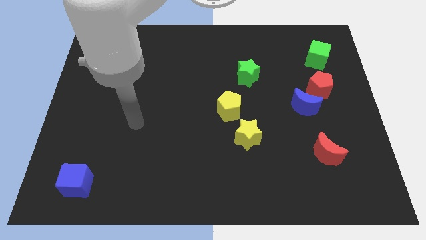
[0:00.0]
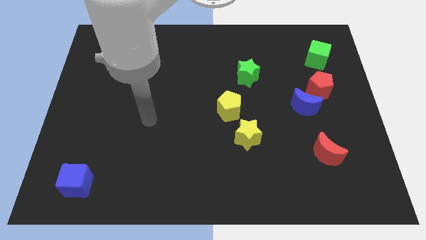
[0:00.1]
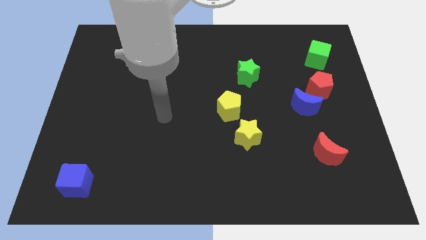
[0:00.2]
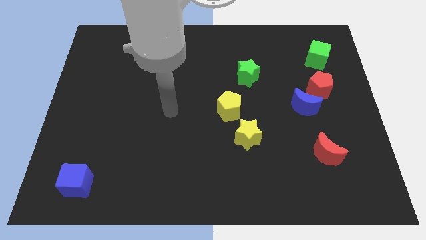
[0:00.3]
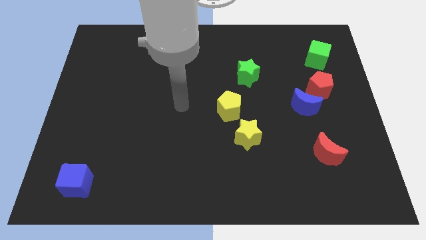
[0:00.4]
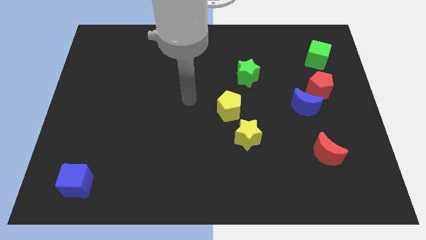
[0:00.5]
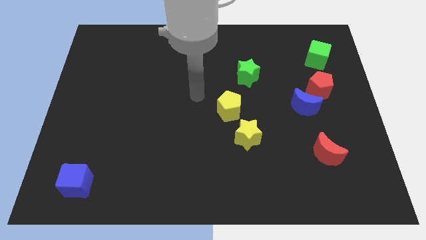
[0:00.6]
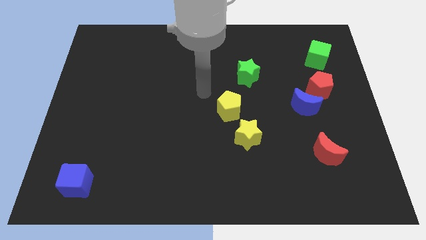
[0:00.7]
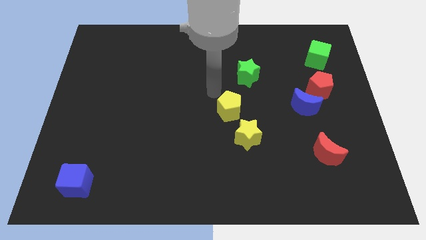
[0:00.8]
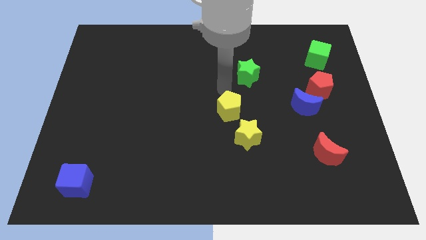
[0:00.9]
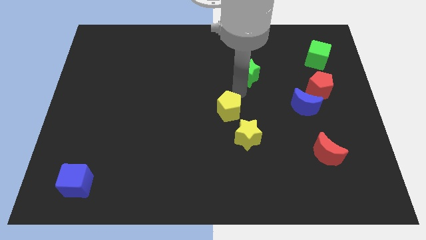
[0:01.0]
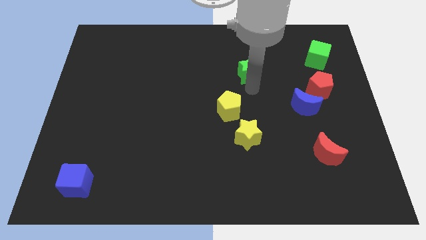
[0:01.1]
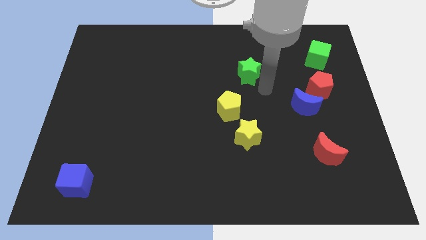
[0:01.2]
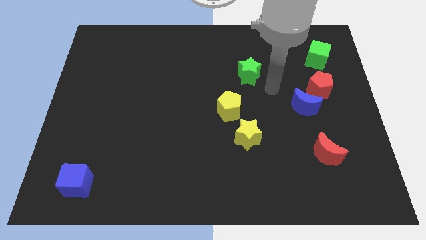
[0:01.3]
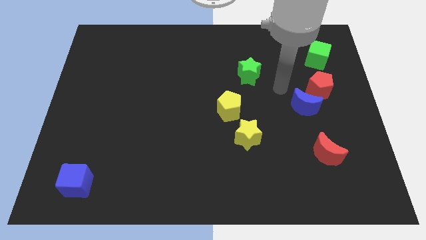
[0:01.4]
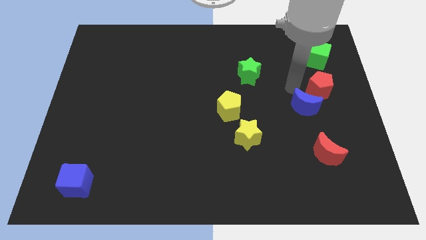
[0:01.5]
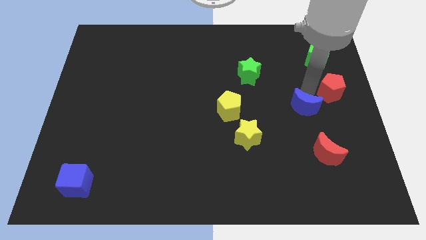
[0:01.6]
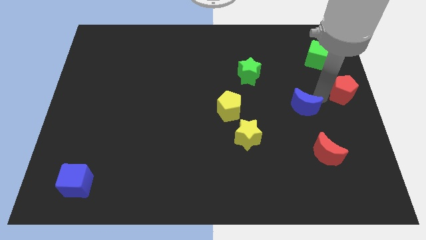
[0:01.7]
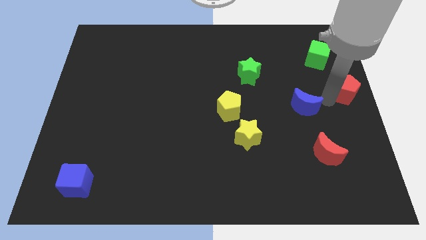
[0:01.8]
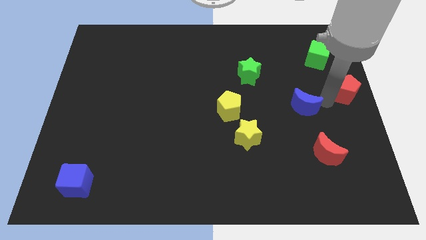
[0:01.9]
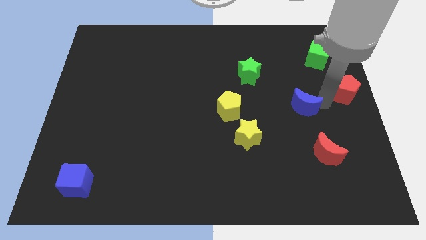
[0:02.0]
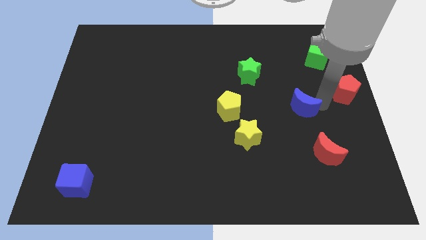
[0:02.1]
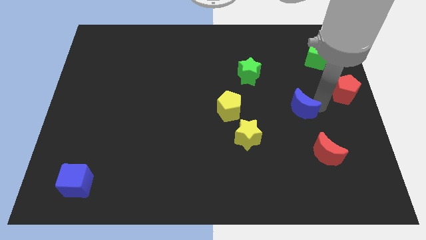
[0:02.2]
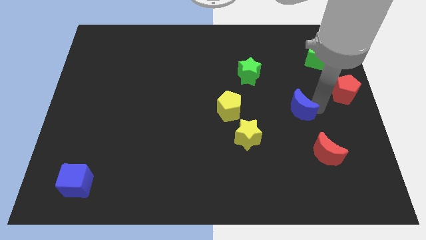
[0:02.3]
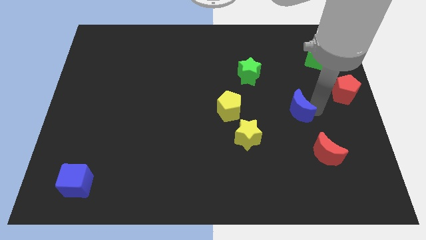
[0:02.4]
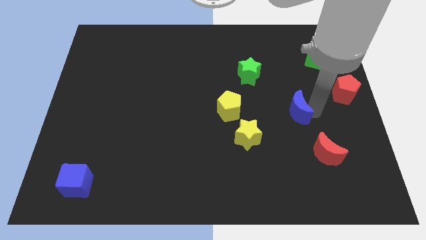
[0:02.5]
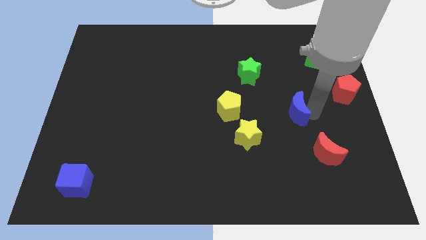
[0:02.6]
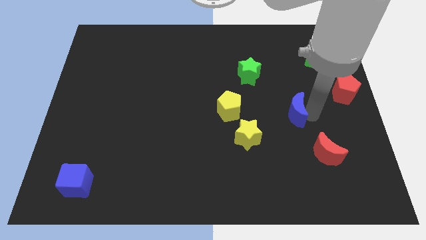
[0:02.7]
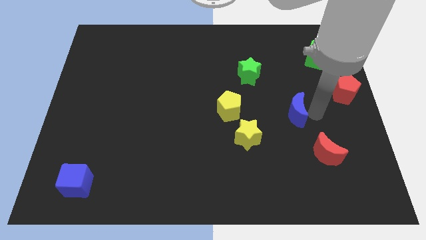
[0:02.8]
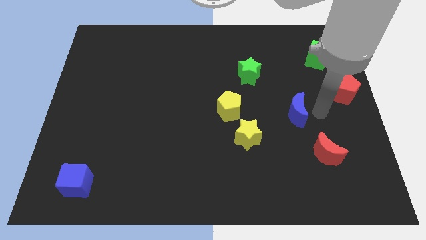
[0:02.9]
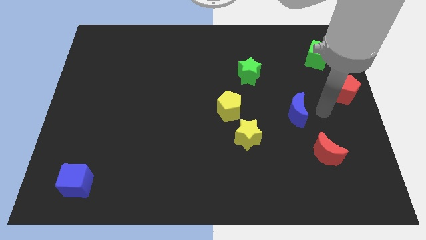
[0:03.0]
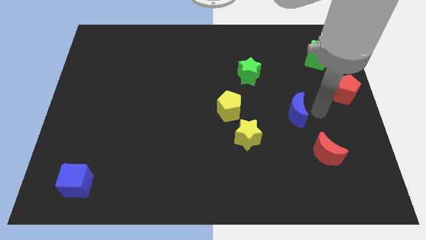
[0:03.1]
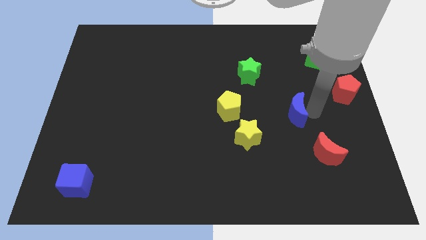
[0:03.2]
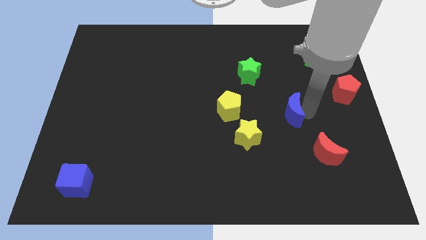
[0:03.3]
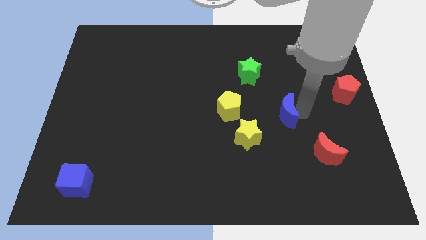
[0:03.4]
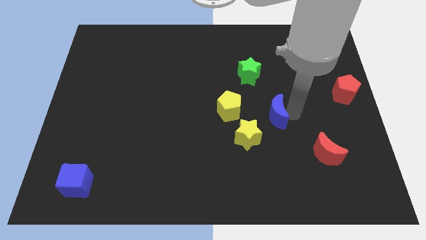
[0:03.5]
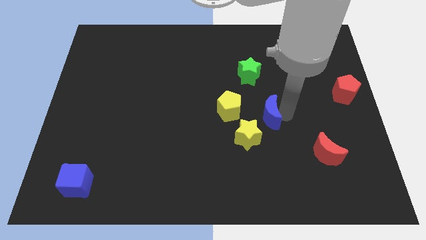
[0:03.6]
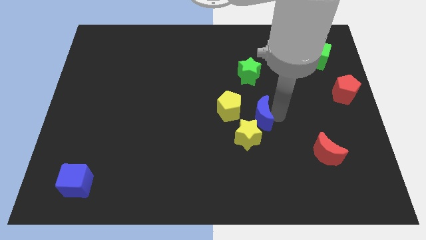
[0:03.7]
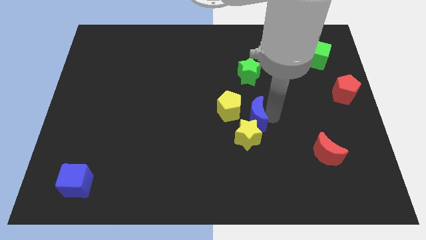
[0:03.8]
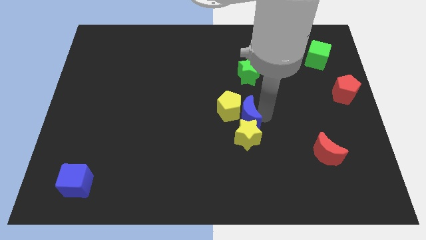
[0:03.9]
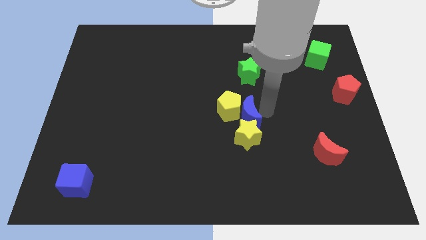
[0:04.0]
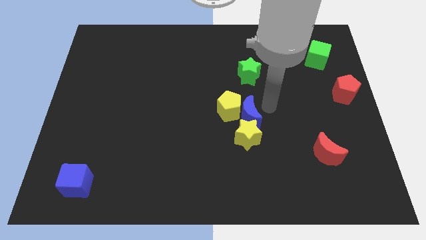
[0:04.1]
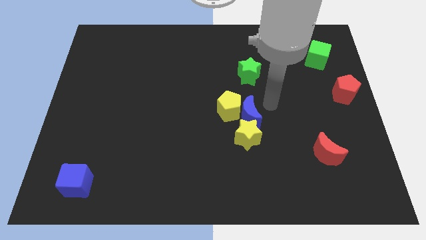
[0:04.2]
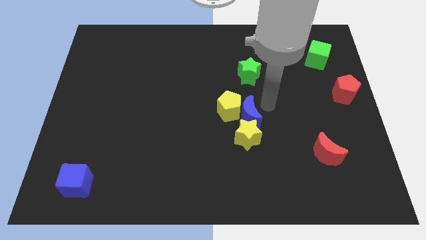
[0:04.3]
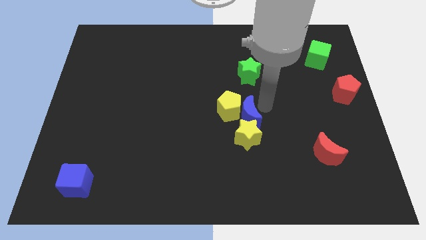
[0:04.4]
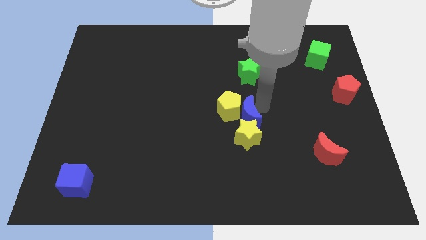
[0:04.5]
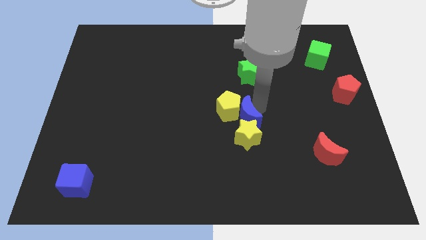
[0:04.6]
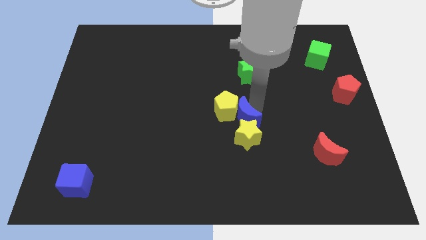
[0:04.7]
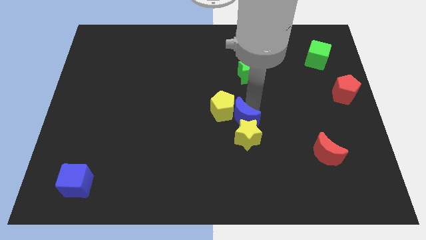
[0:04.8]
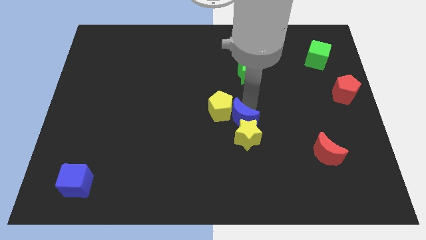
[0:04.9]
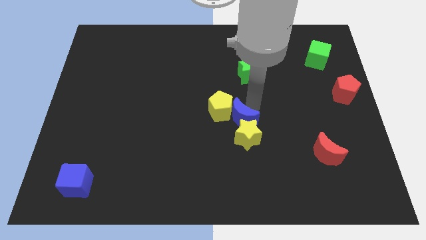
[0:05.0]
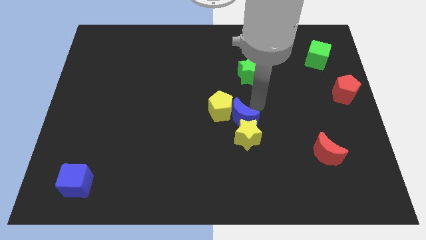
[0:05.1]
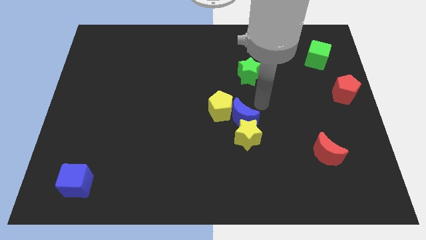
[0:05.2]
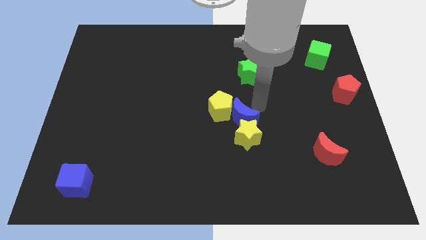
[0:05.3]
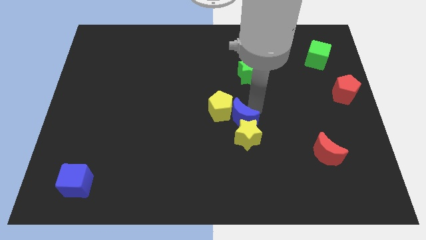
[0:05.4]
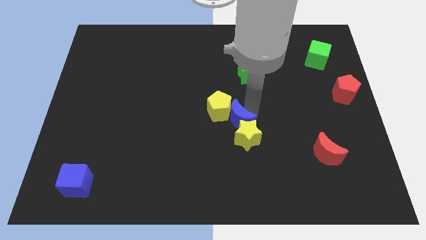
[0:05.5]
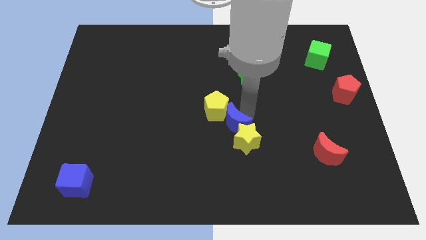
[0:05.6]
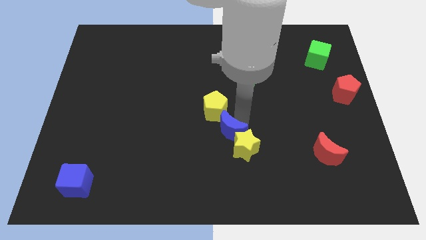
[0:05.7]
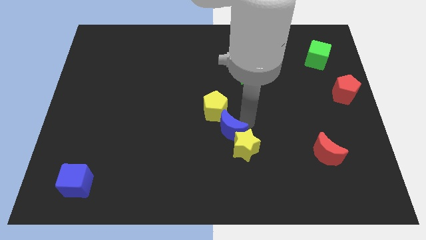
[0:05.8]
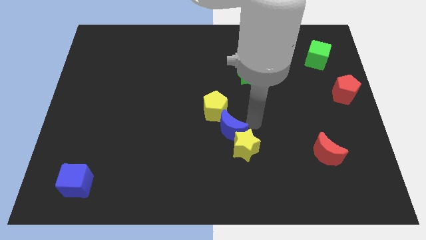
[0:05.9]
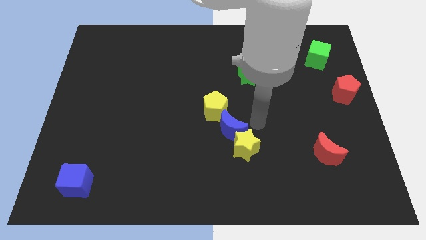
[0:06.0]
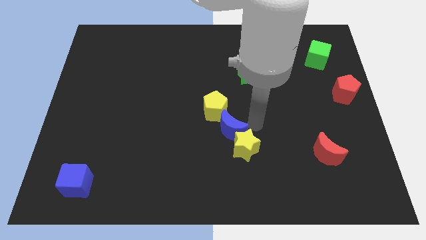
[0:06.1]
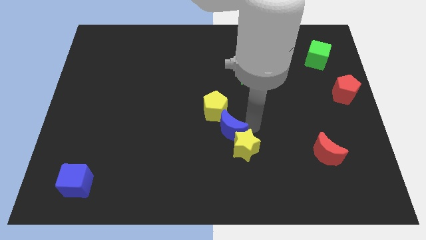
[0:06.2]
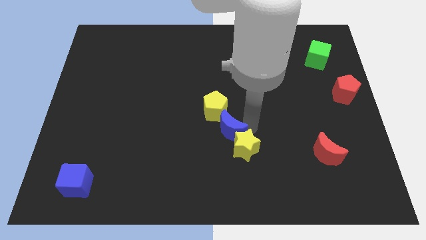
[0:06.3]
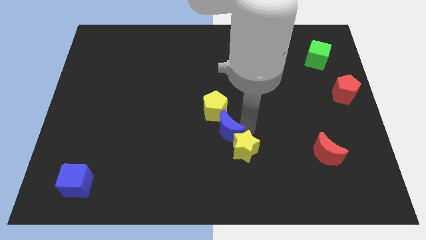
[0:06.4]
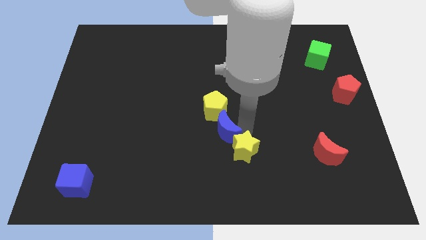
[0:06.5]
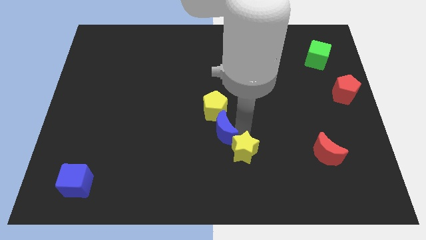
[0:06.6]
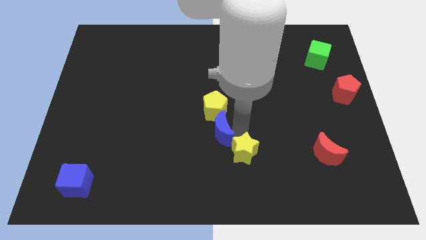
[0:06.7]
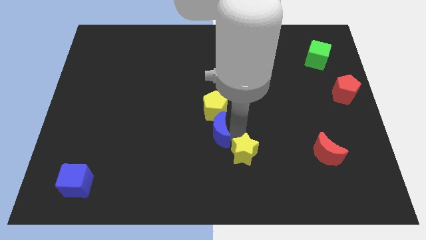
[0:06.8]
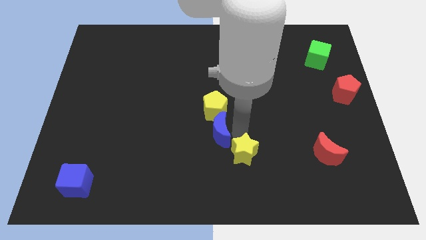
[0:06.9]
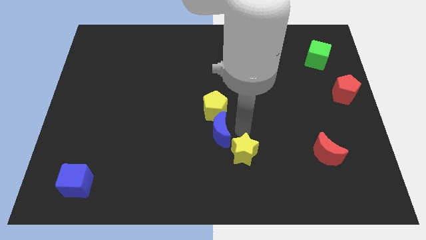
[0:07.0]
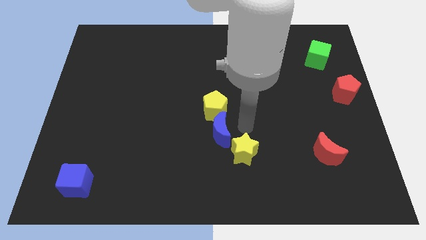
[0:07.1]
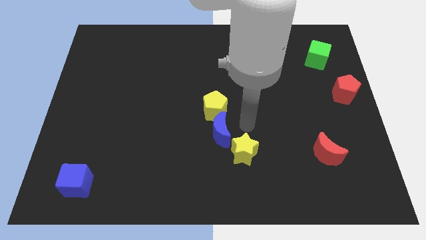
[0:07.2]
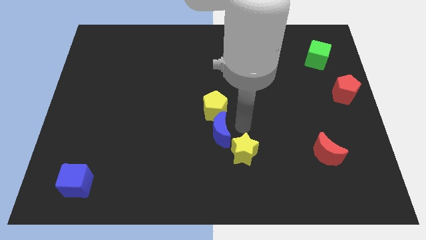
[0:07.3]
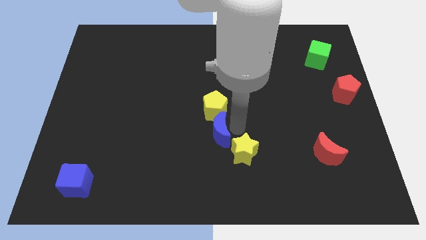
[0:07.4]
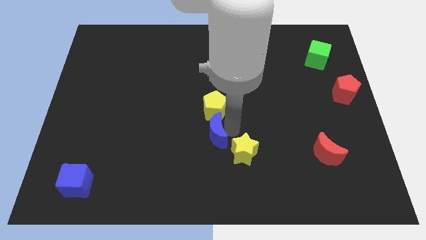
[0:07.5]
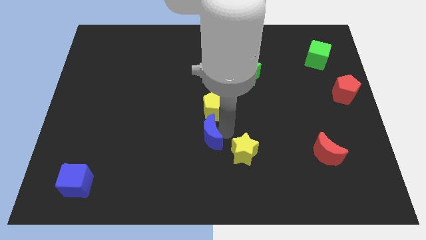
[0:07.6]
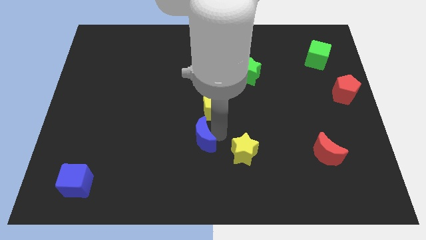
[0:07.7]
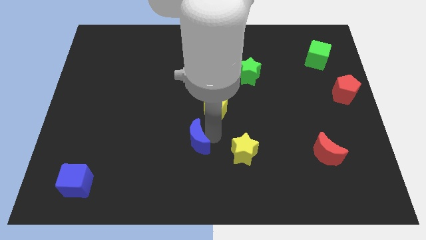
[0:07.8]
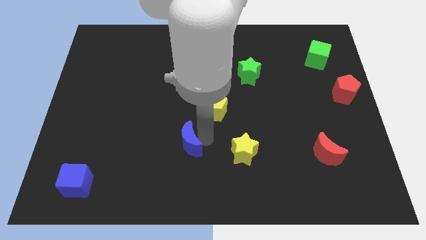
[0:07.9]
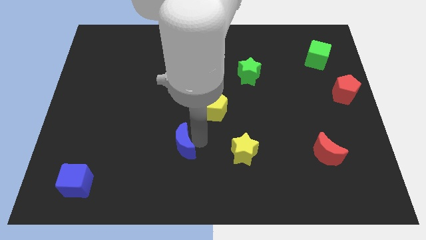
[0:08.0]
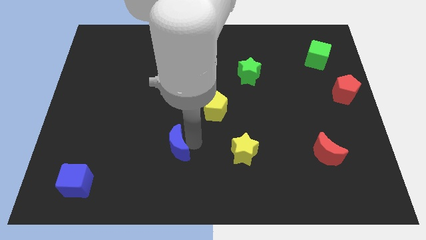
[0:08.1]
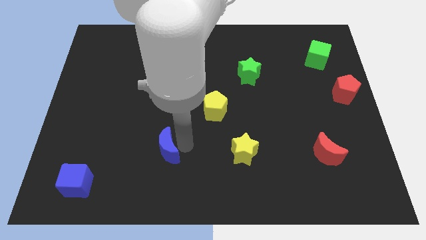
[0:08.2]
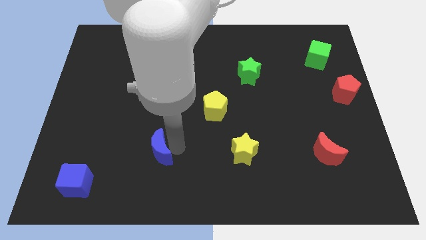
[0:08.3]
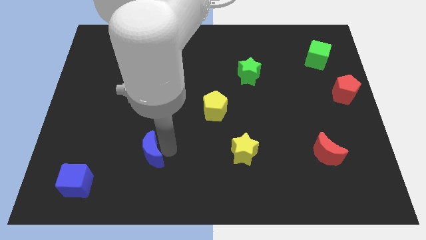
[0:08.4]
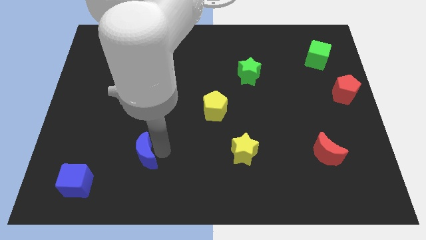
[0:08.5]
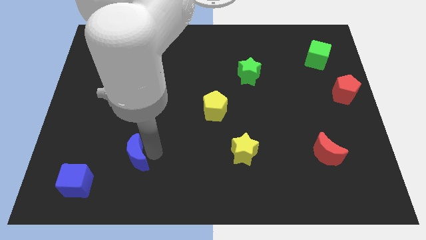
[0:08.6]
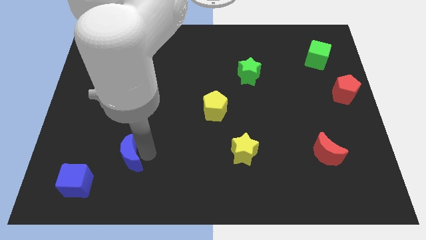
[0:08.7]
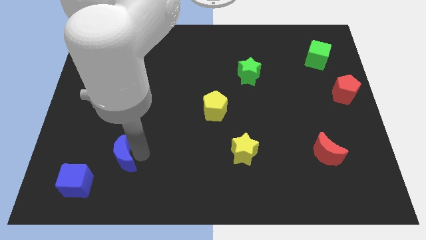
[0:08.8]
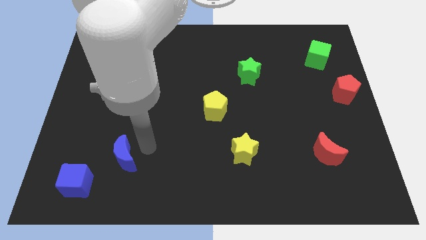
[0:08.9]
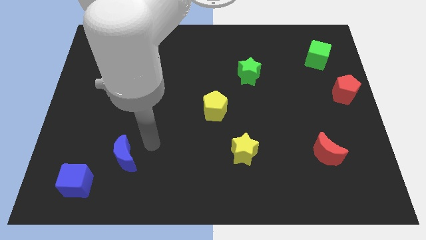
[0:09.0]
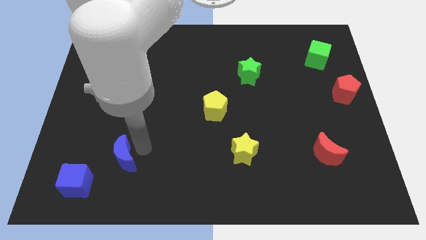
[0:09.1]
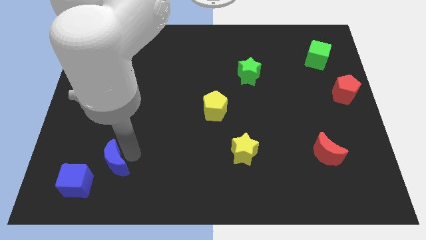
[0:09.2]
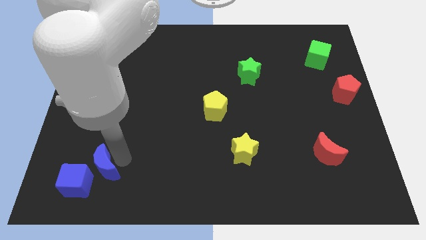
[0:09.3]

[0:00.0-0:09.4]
put the blue moon to the blue cube
